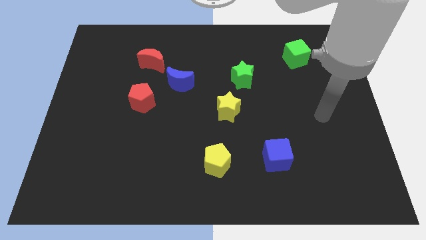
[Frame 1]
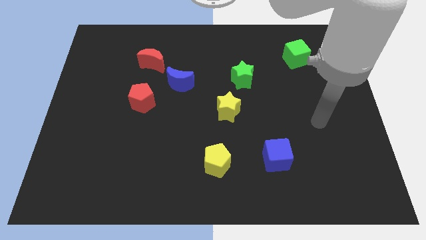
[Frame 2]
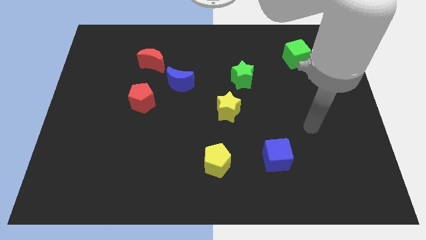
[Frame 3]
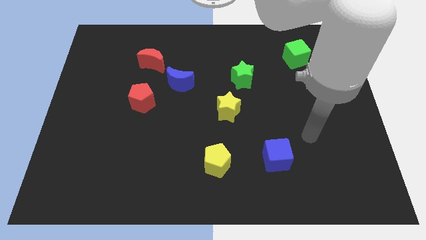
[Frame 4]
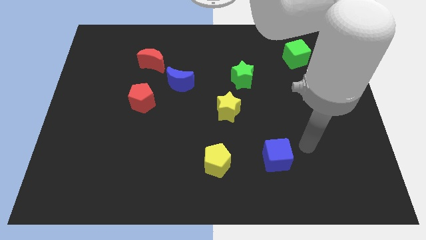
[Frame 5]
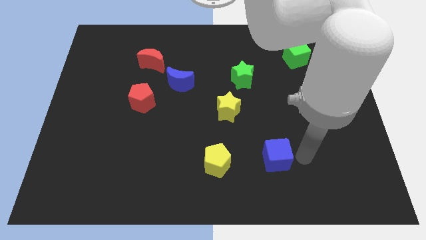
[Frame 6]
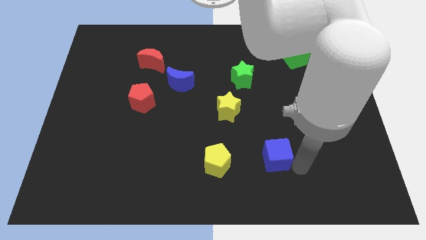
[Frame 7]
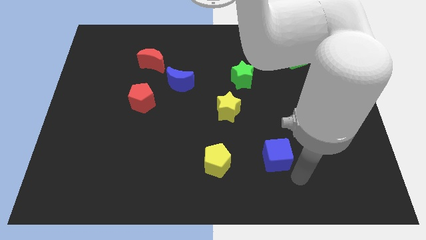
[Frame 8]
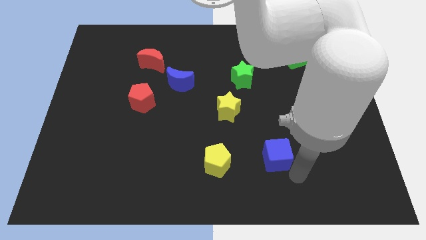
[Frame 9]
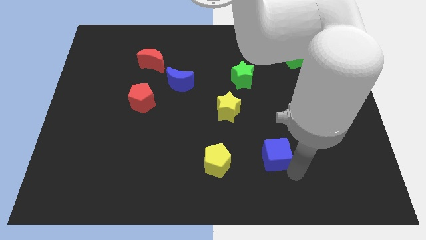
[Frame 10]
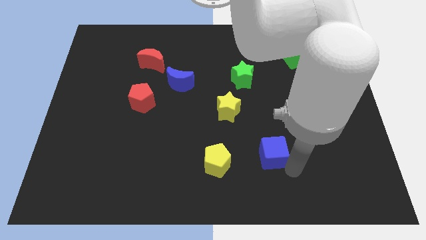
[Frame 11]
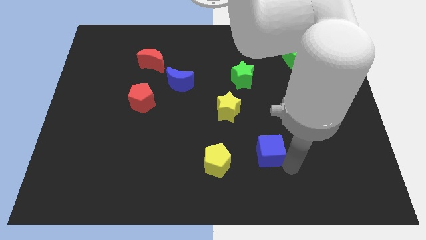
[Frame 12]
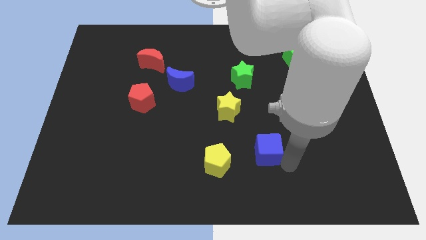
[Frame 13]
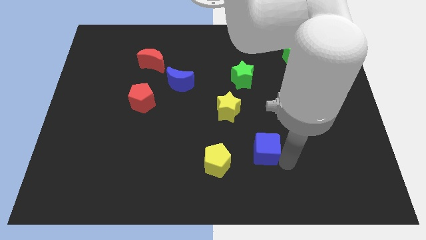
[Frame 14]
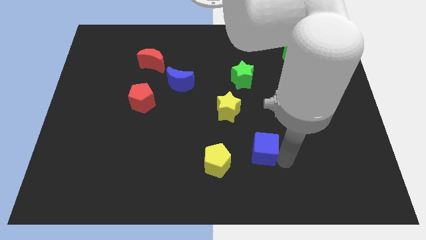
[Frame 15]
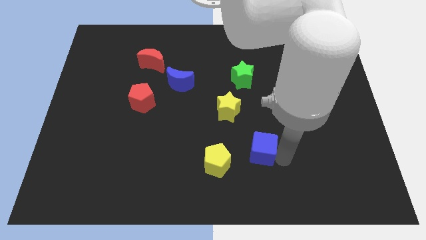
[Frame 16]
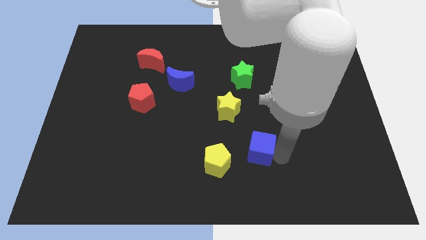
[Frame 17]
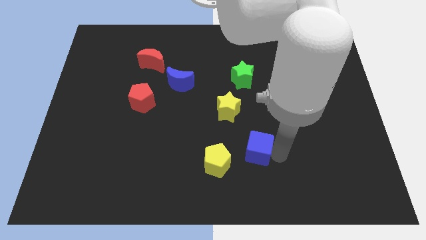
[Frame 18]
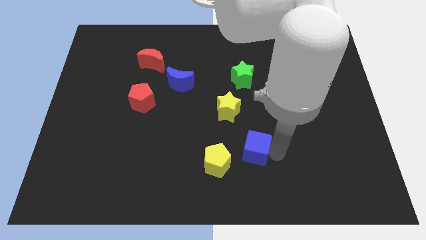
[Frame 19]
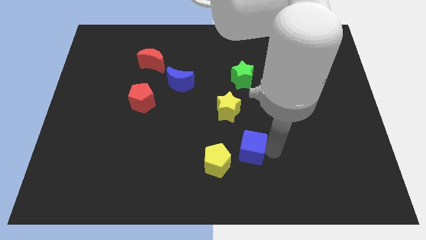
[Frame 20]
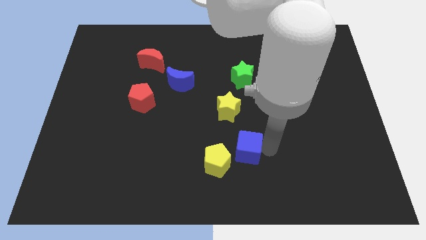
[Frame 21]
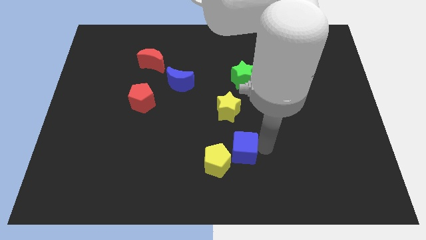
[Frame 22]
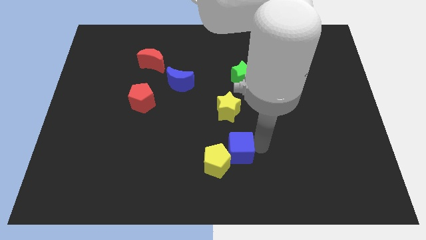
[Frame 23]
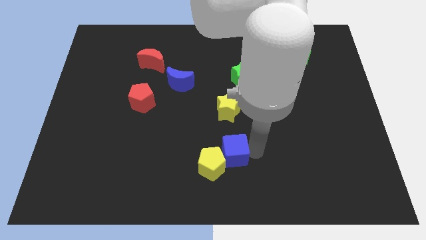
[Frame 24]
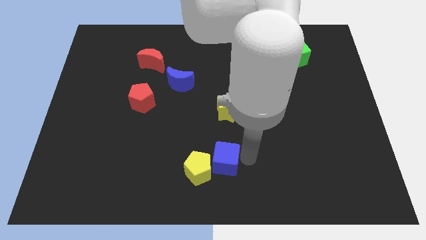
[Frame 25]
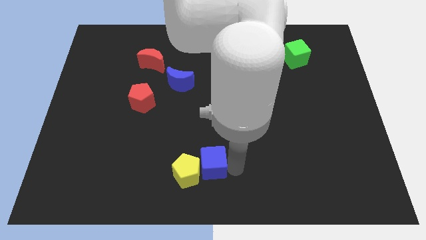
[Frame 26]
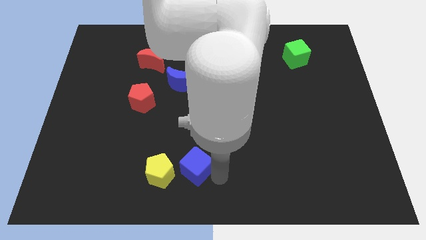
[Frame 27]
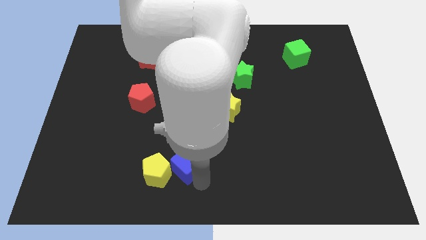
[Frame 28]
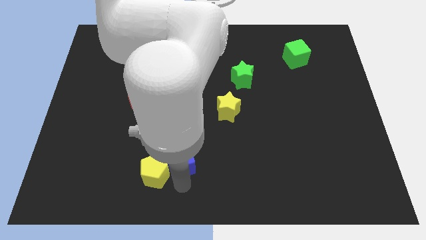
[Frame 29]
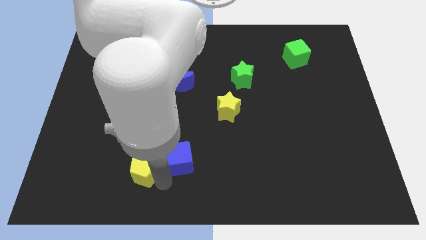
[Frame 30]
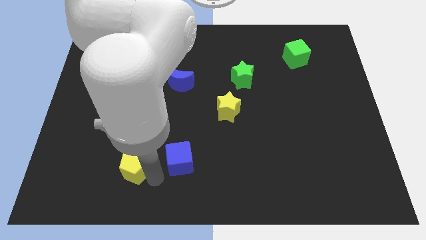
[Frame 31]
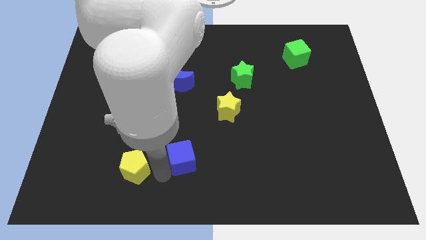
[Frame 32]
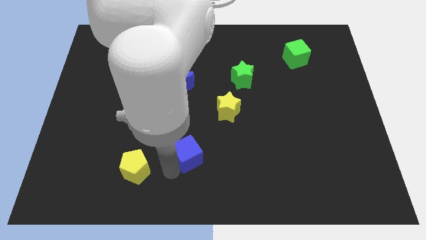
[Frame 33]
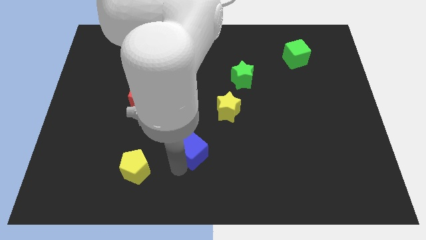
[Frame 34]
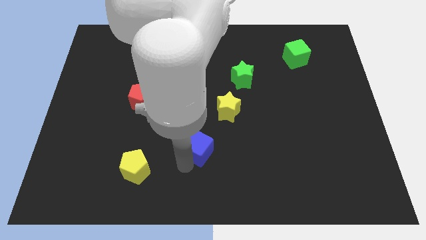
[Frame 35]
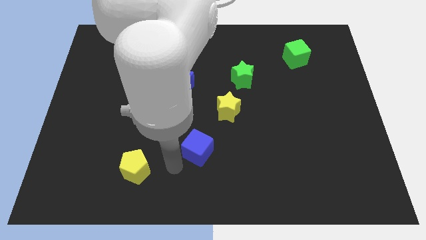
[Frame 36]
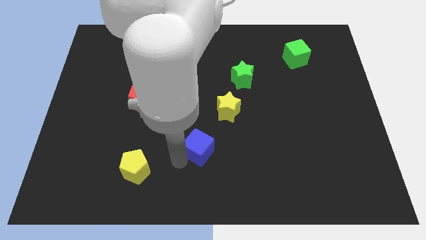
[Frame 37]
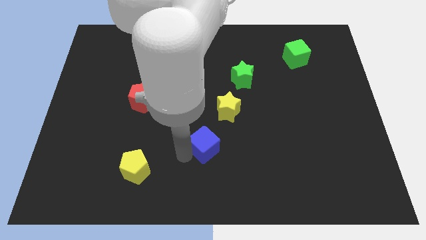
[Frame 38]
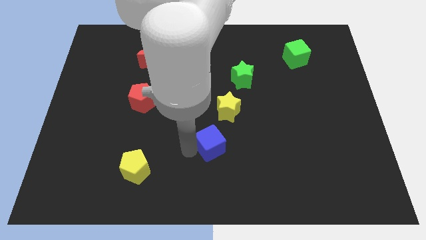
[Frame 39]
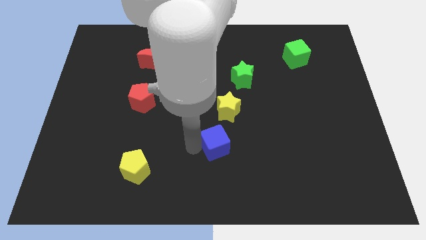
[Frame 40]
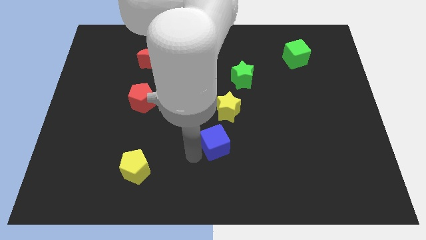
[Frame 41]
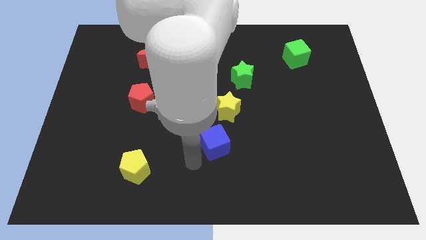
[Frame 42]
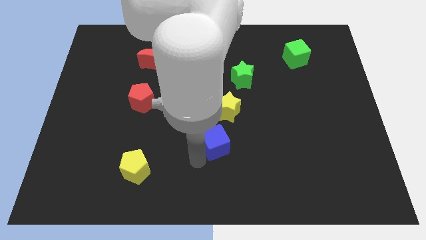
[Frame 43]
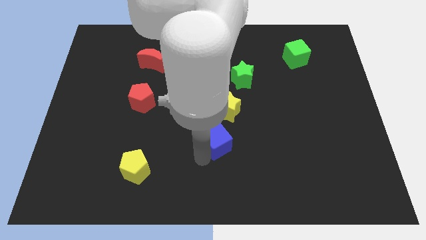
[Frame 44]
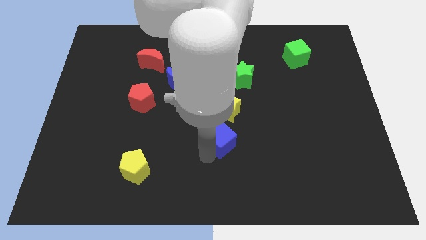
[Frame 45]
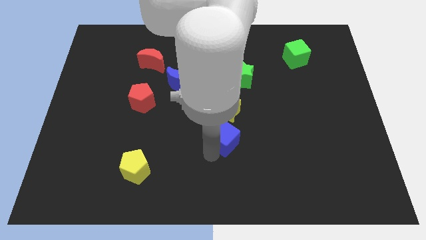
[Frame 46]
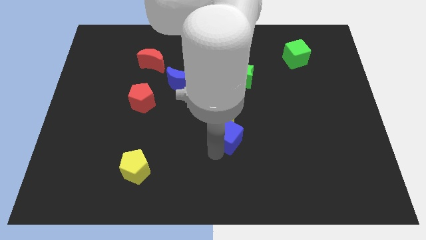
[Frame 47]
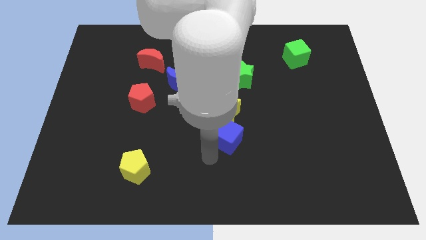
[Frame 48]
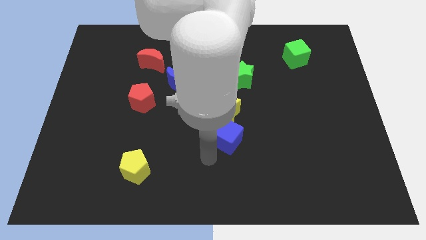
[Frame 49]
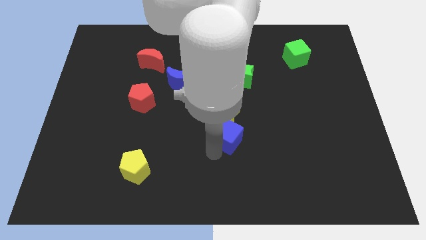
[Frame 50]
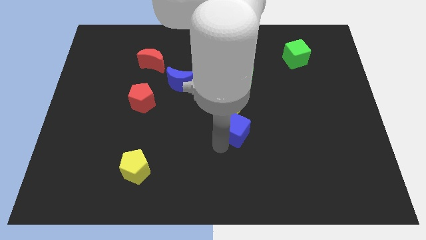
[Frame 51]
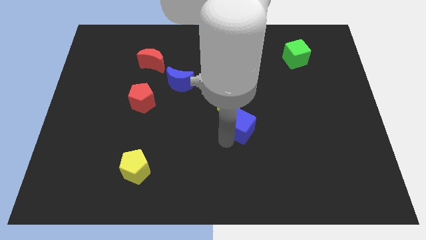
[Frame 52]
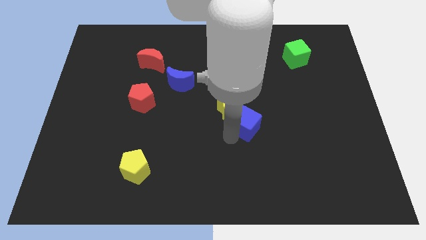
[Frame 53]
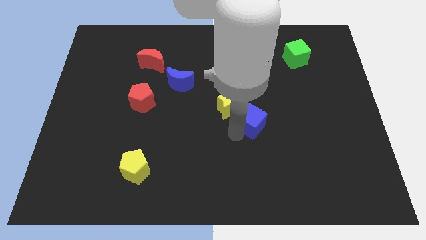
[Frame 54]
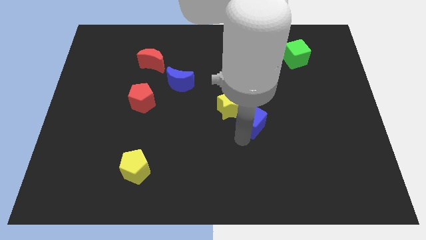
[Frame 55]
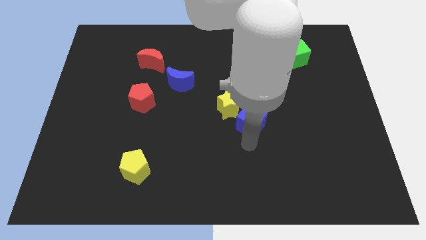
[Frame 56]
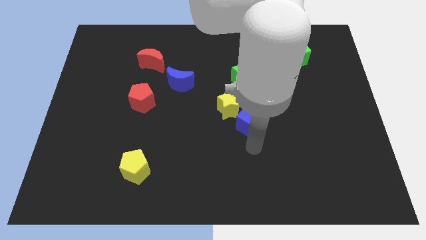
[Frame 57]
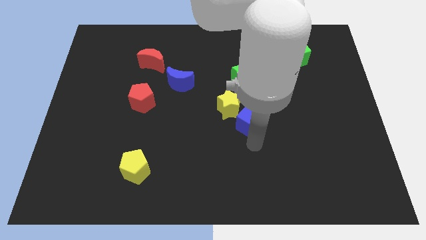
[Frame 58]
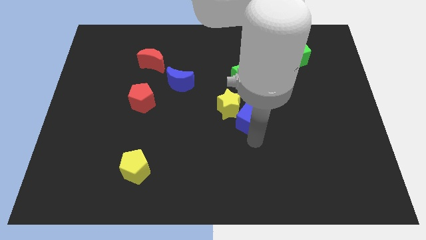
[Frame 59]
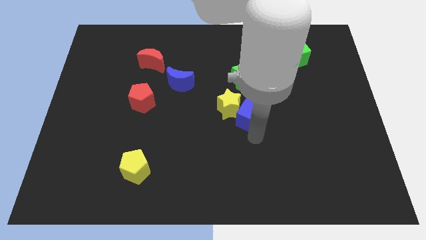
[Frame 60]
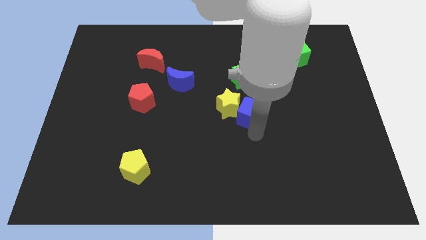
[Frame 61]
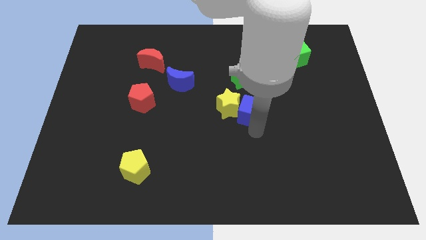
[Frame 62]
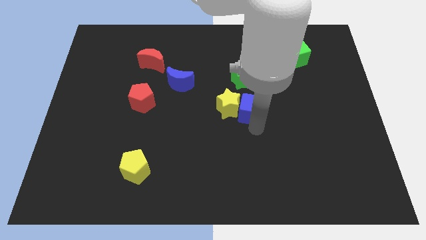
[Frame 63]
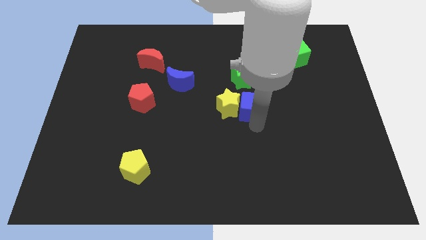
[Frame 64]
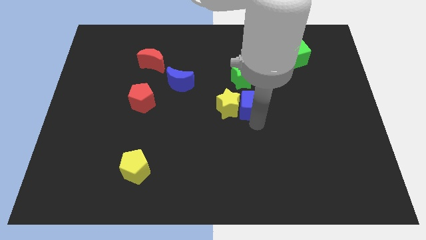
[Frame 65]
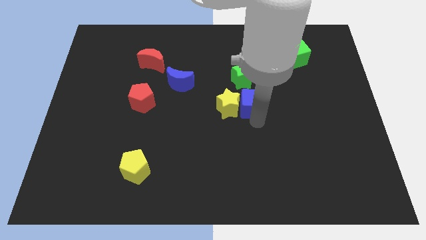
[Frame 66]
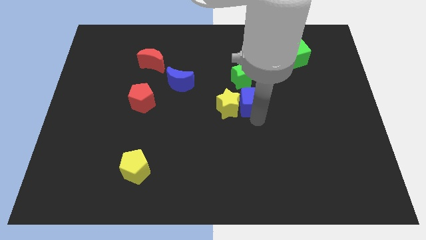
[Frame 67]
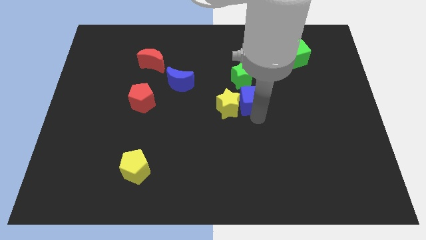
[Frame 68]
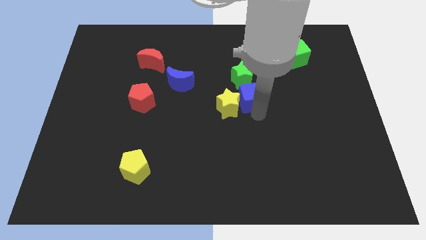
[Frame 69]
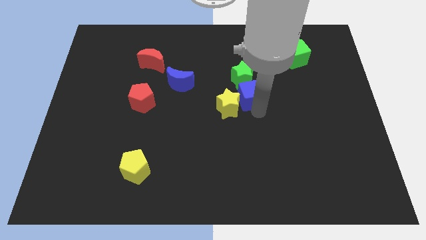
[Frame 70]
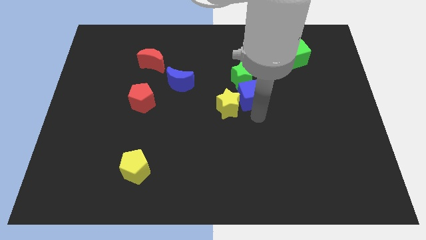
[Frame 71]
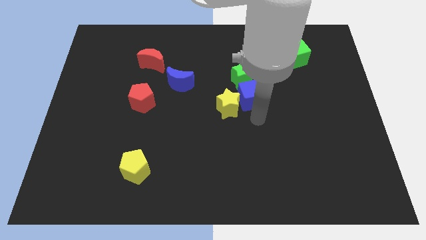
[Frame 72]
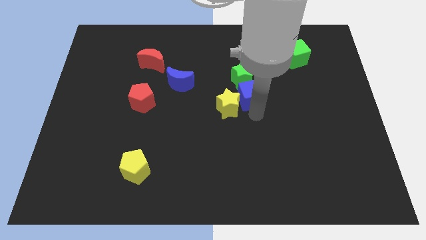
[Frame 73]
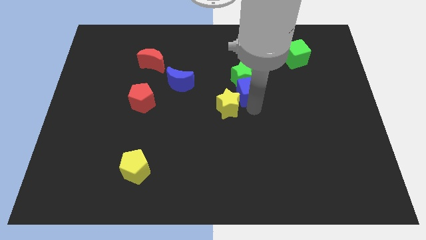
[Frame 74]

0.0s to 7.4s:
put the blue cube to the green star
